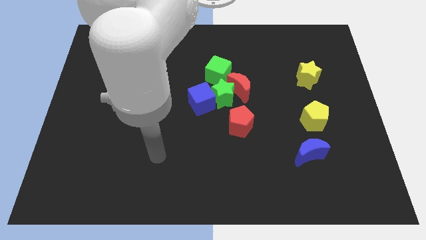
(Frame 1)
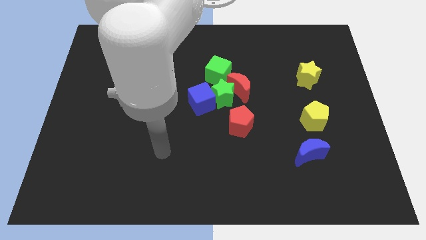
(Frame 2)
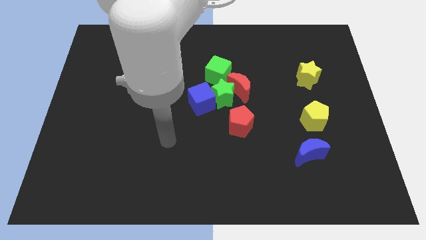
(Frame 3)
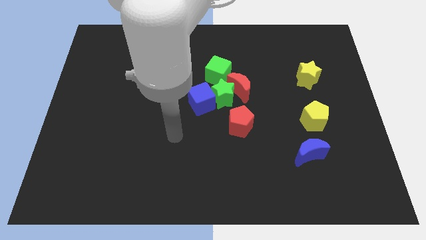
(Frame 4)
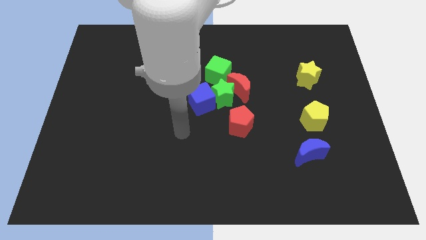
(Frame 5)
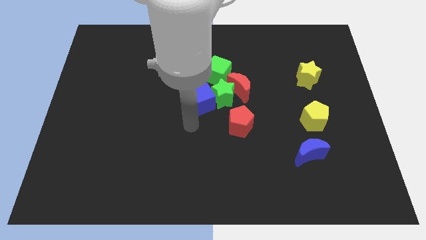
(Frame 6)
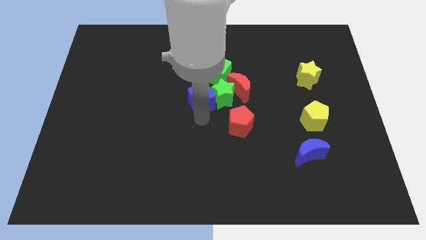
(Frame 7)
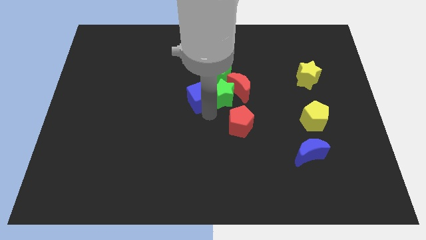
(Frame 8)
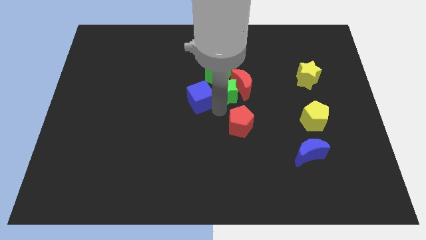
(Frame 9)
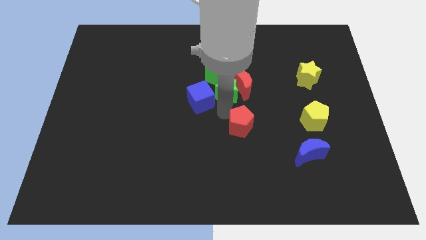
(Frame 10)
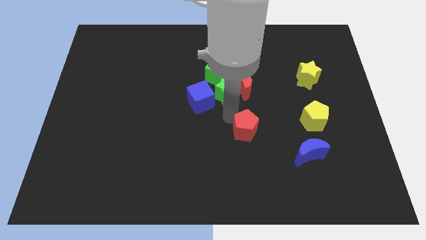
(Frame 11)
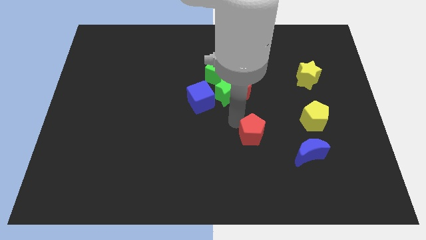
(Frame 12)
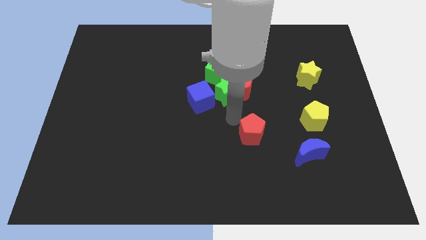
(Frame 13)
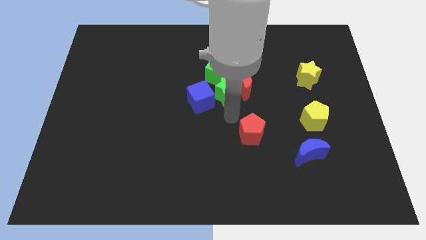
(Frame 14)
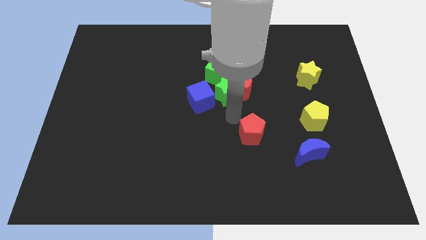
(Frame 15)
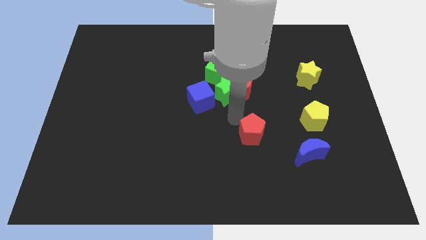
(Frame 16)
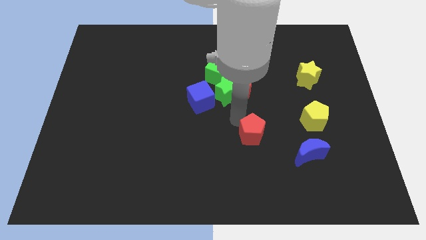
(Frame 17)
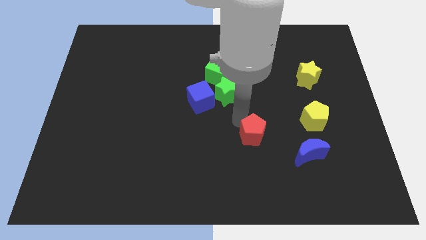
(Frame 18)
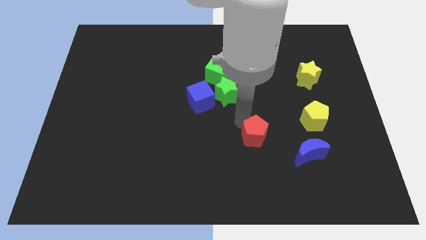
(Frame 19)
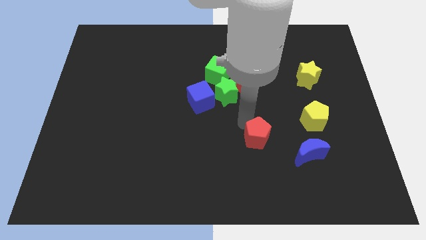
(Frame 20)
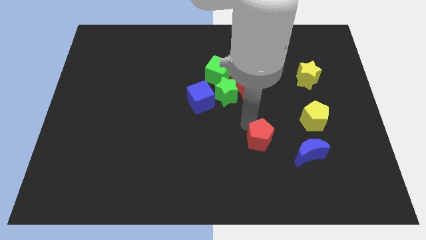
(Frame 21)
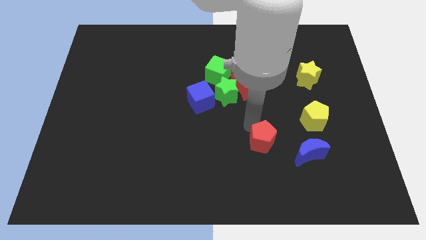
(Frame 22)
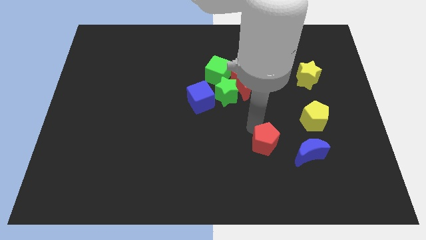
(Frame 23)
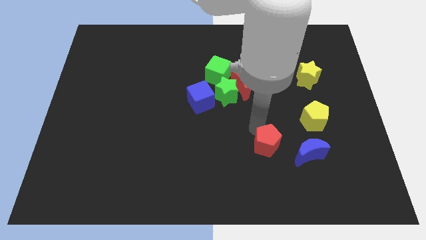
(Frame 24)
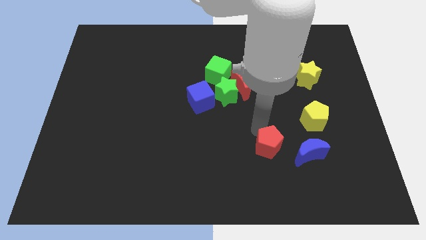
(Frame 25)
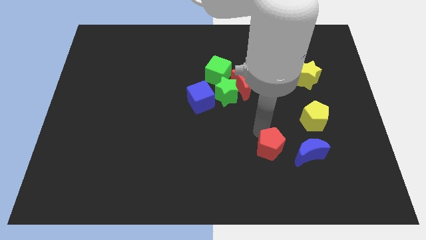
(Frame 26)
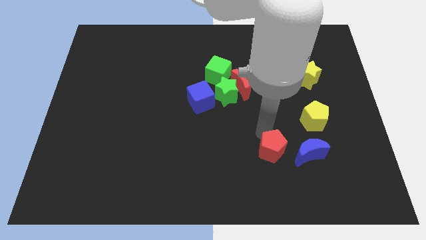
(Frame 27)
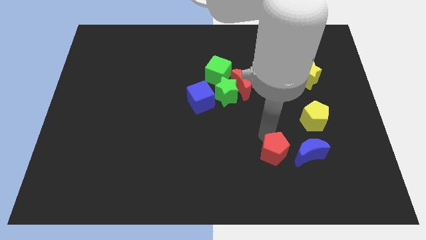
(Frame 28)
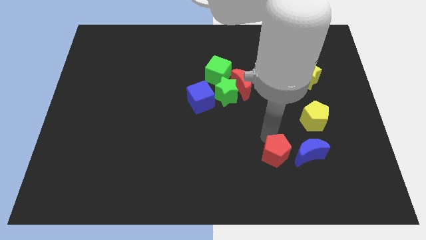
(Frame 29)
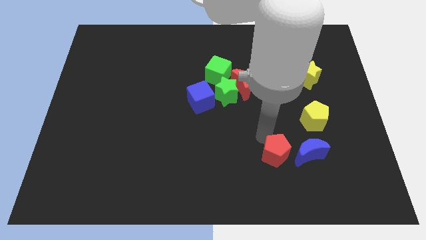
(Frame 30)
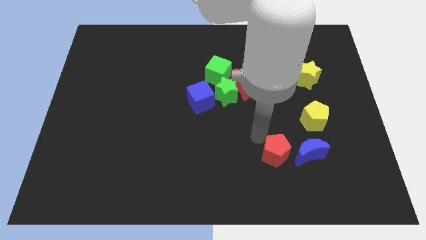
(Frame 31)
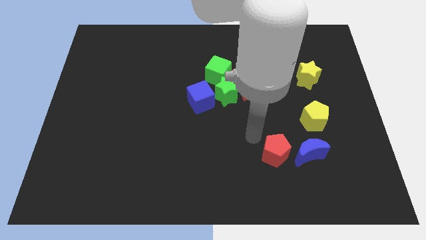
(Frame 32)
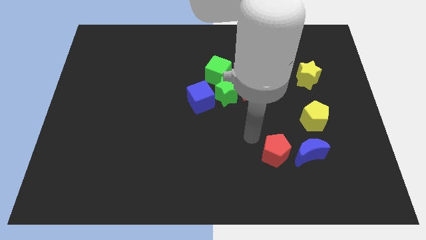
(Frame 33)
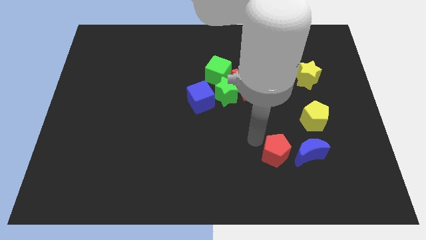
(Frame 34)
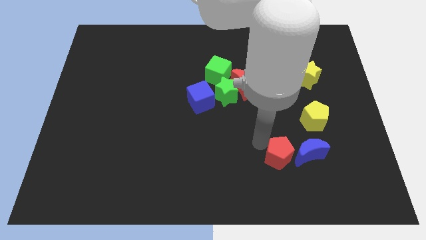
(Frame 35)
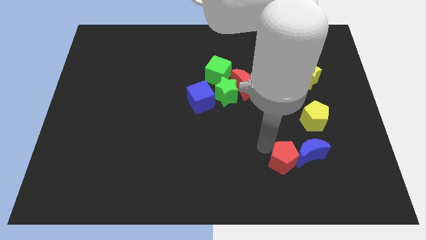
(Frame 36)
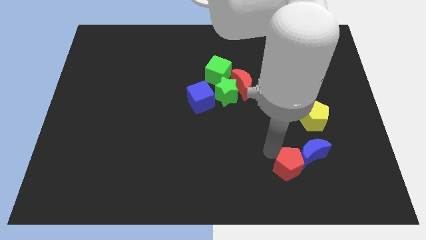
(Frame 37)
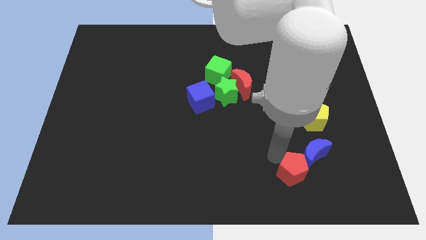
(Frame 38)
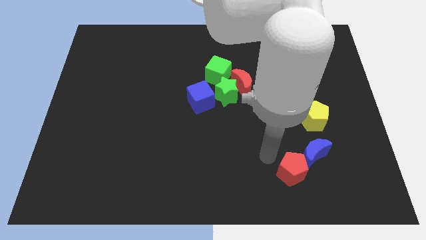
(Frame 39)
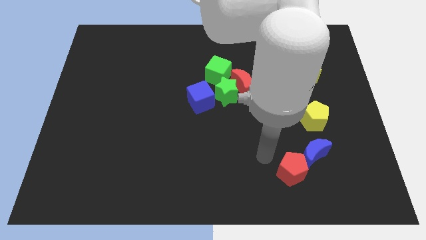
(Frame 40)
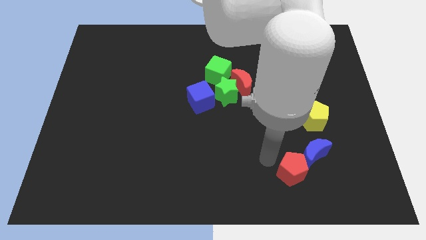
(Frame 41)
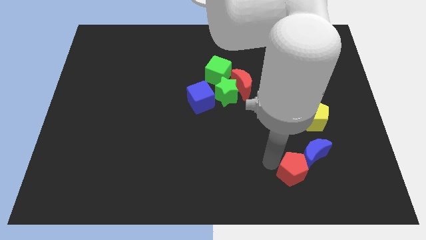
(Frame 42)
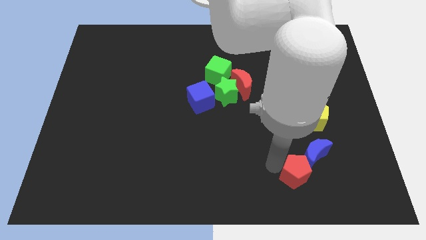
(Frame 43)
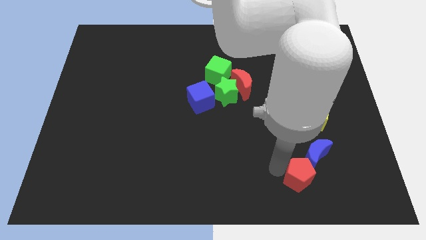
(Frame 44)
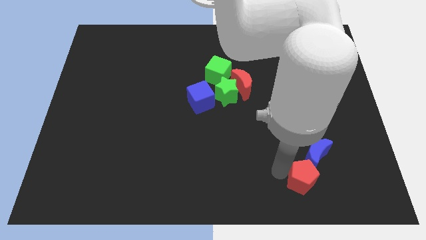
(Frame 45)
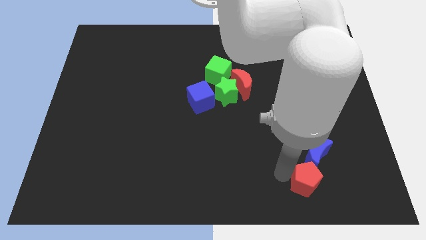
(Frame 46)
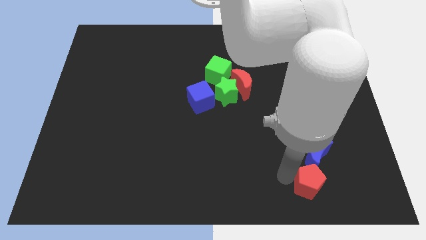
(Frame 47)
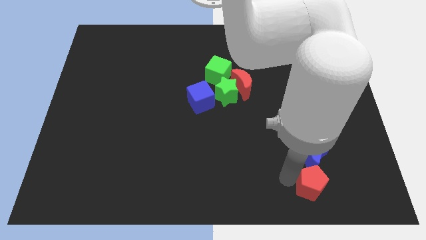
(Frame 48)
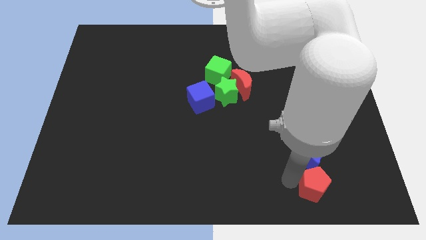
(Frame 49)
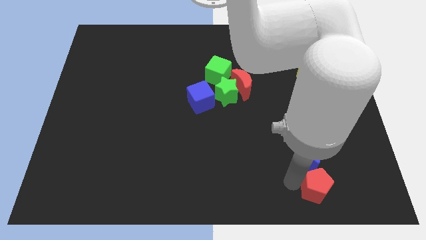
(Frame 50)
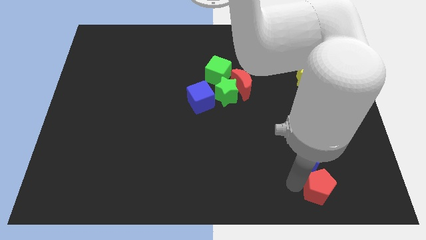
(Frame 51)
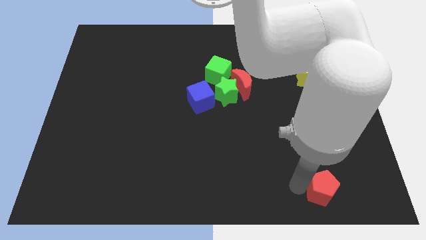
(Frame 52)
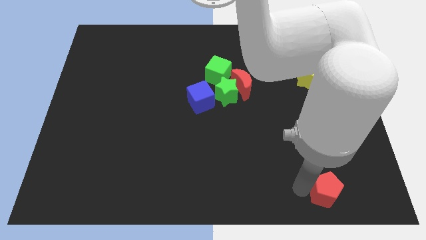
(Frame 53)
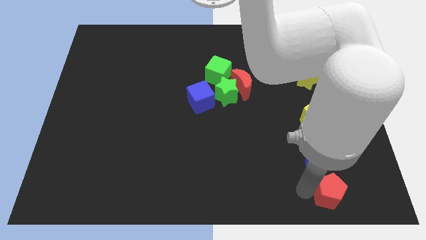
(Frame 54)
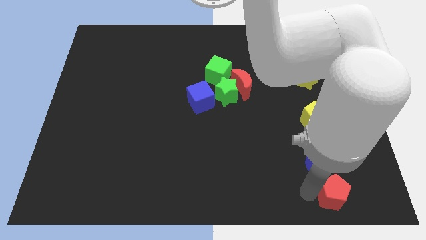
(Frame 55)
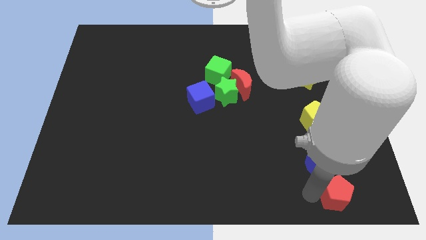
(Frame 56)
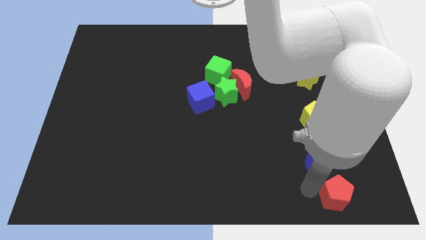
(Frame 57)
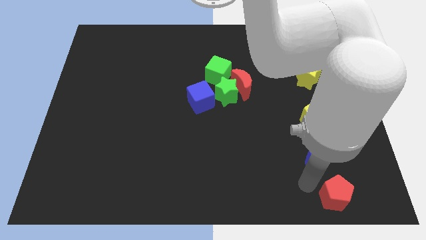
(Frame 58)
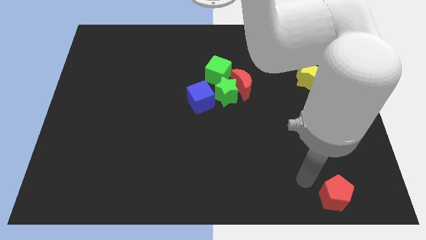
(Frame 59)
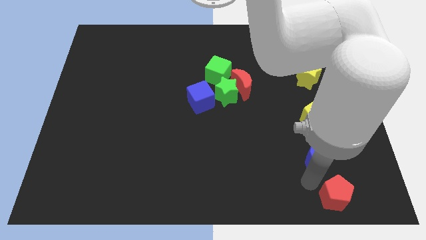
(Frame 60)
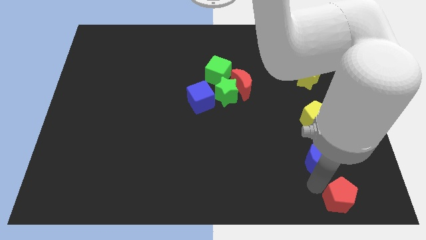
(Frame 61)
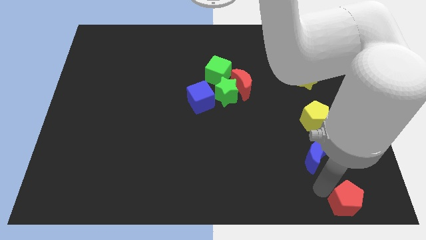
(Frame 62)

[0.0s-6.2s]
push the red pentagon to the bottom right of the board

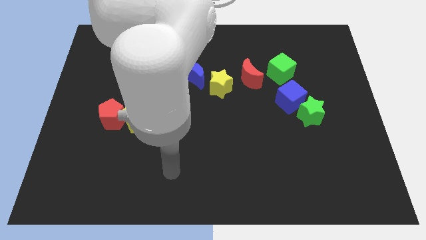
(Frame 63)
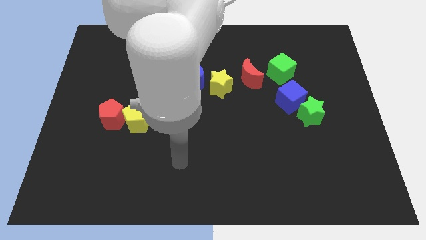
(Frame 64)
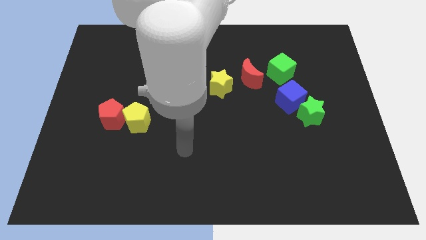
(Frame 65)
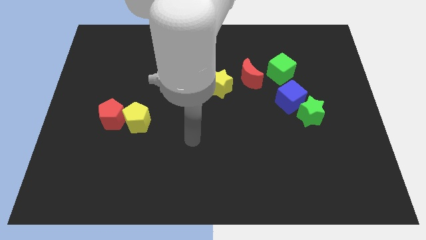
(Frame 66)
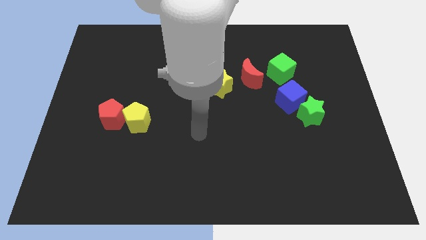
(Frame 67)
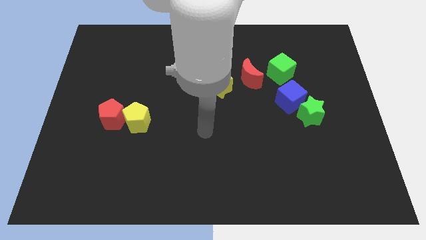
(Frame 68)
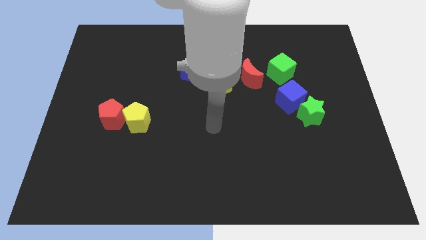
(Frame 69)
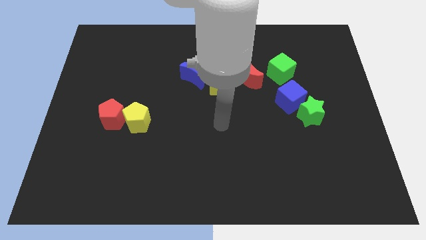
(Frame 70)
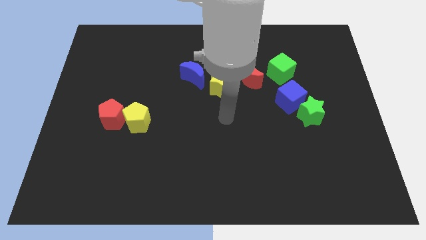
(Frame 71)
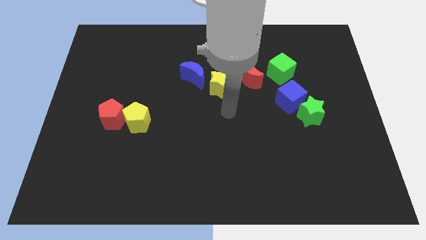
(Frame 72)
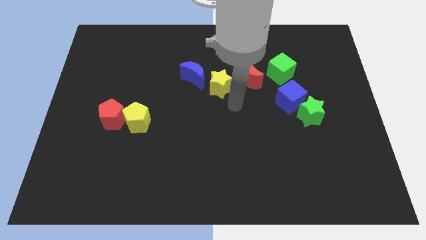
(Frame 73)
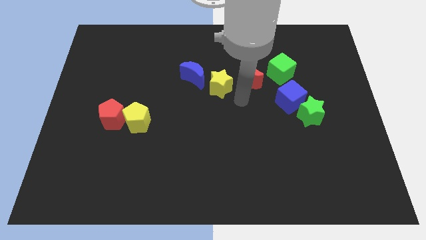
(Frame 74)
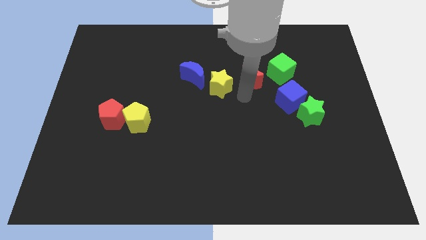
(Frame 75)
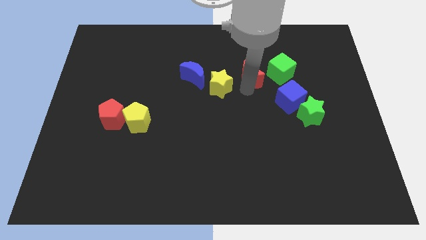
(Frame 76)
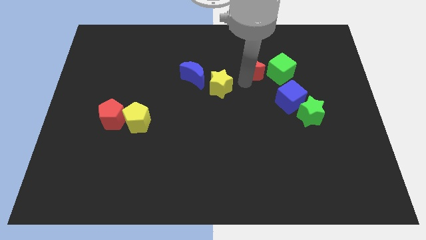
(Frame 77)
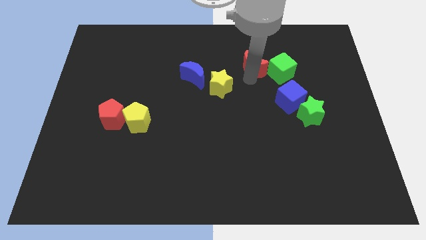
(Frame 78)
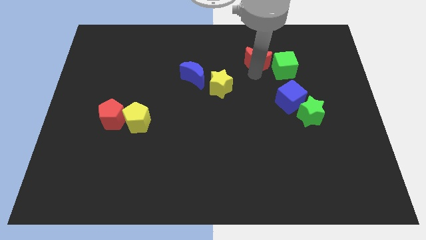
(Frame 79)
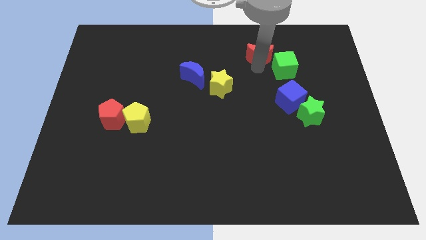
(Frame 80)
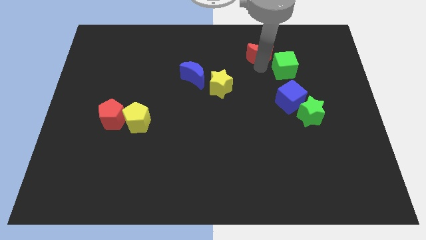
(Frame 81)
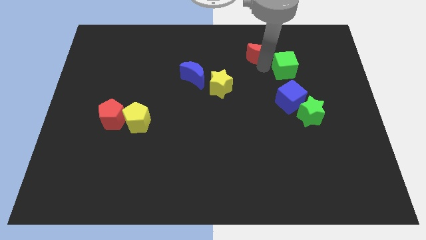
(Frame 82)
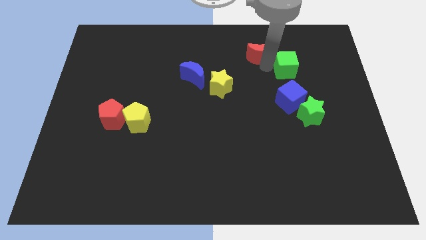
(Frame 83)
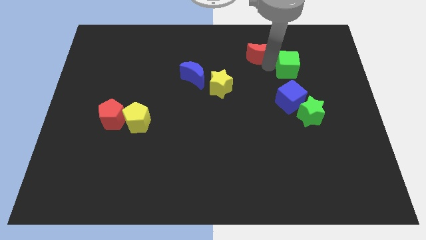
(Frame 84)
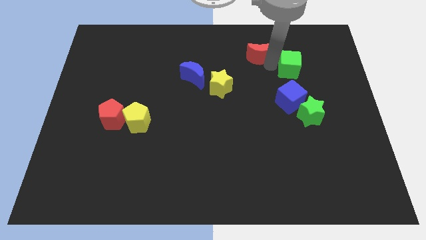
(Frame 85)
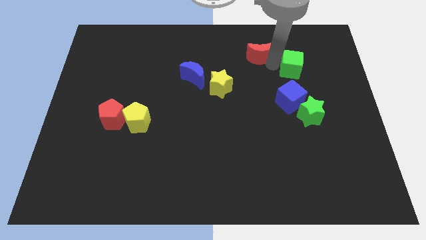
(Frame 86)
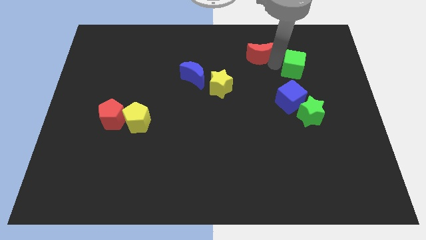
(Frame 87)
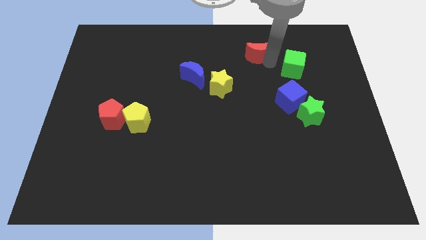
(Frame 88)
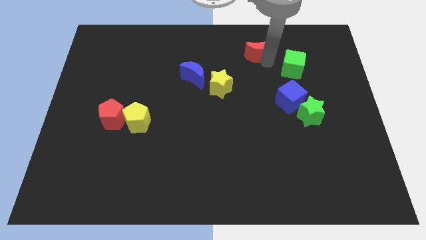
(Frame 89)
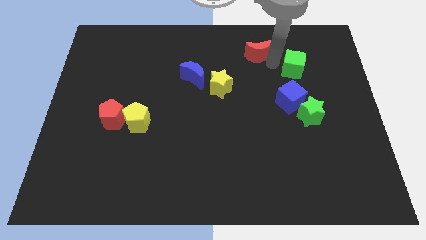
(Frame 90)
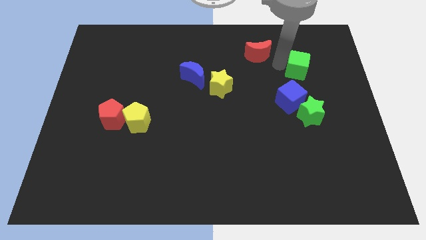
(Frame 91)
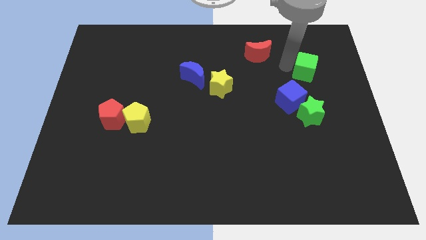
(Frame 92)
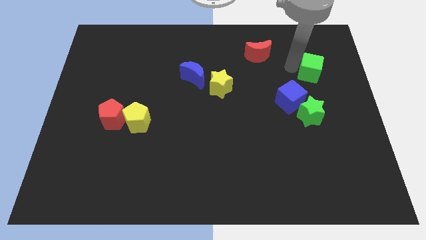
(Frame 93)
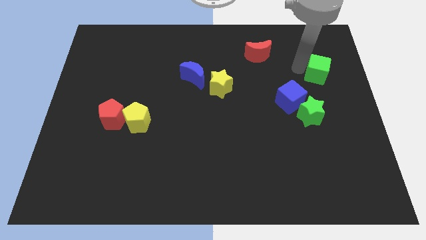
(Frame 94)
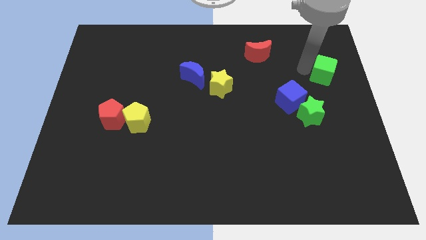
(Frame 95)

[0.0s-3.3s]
move the green cube to the right side
